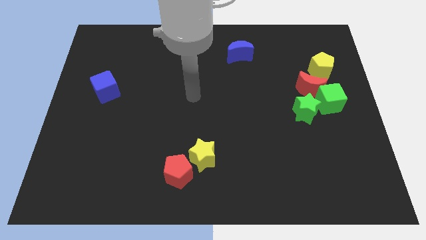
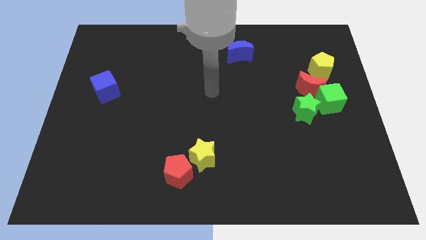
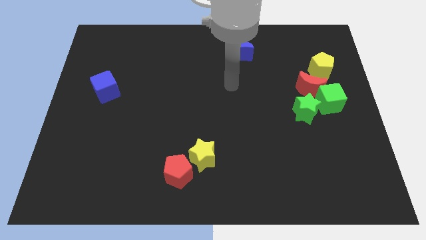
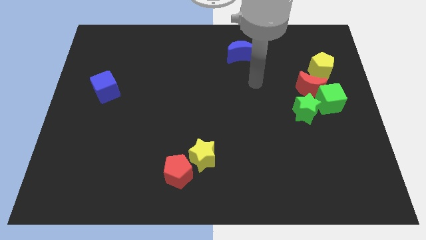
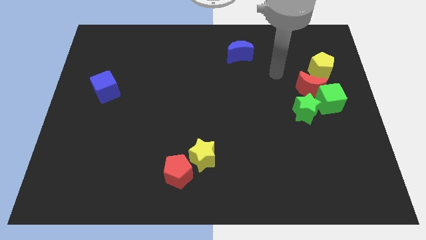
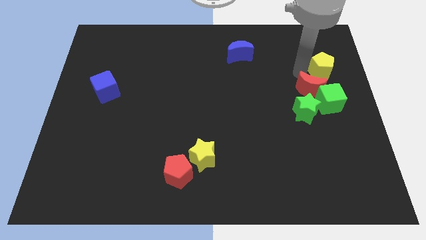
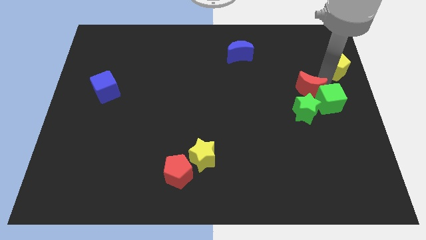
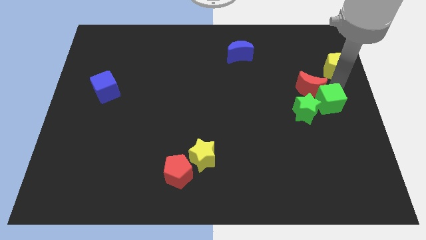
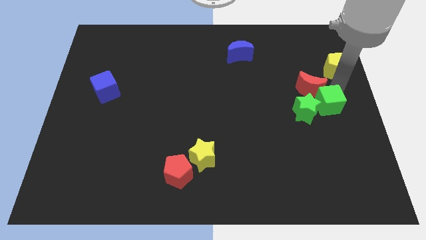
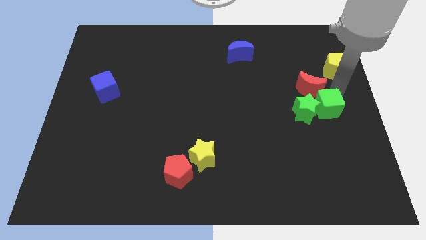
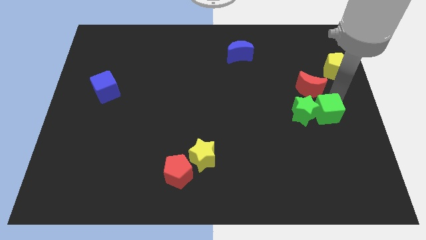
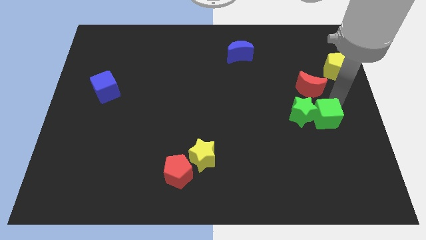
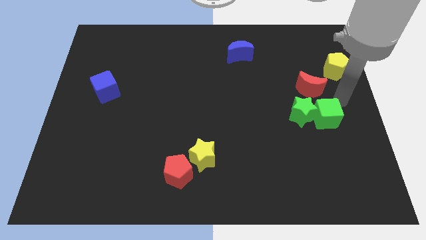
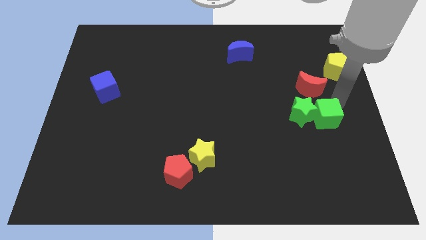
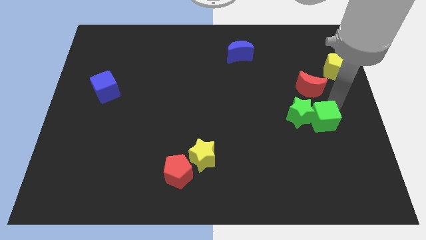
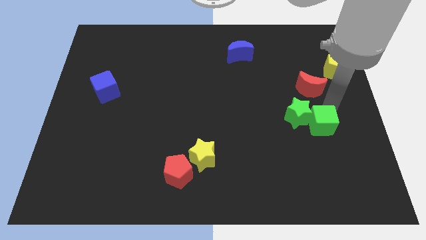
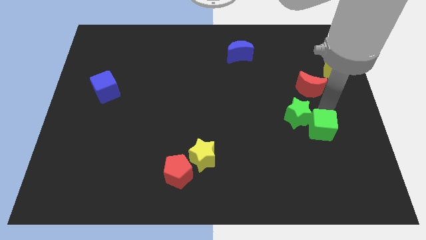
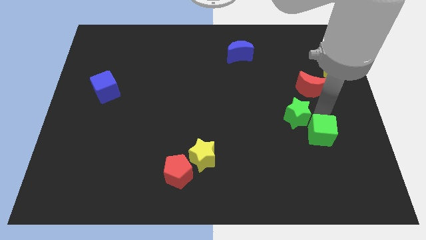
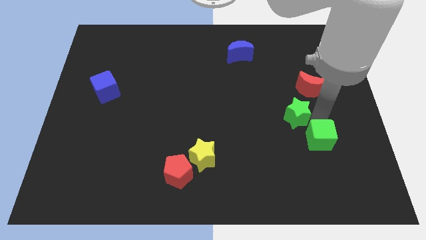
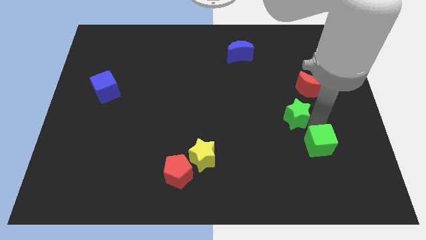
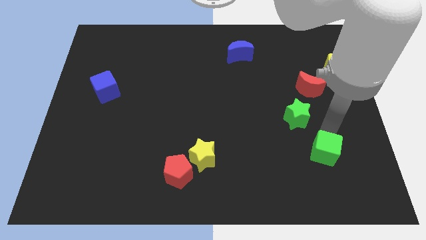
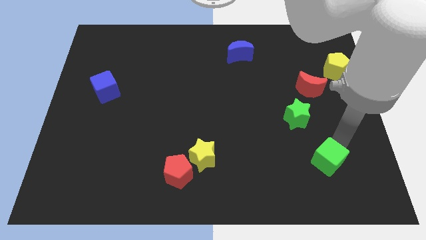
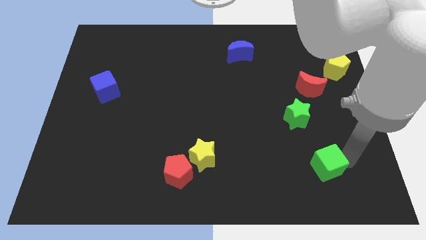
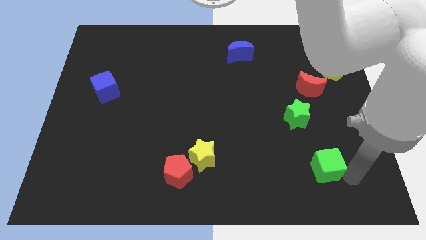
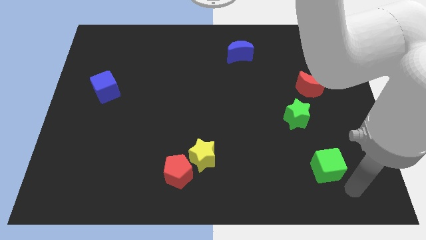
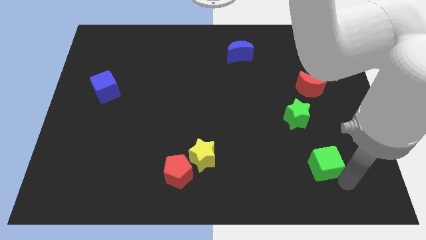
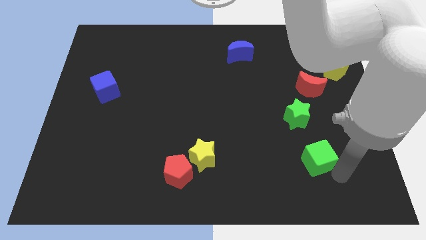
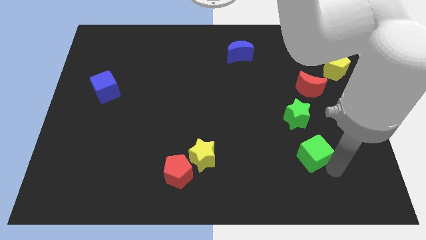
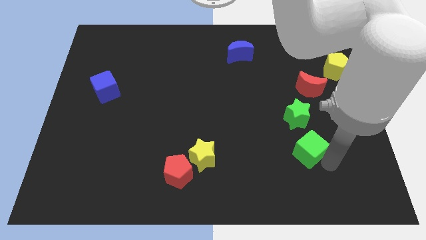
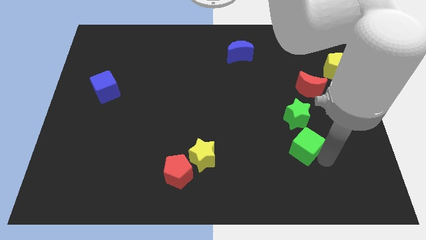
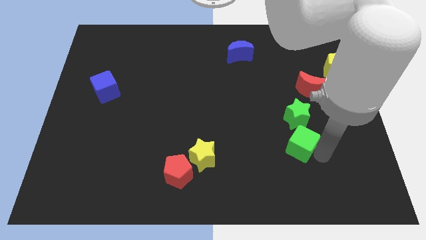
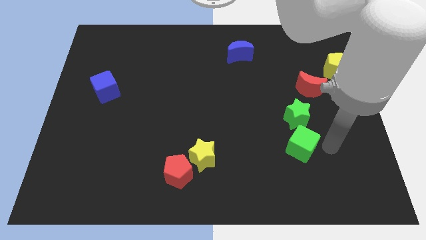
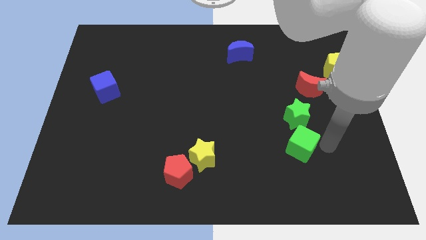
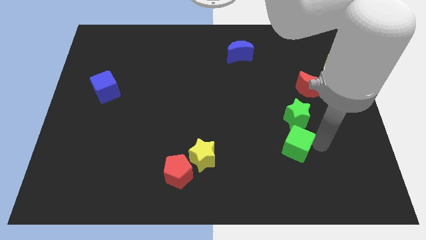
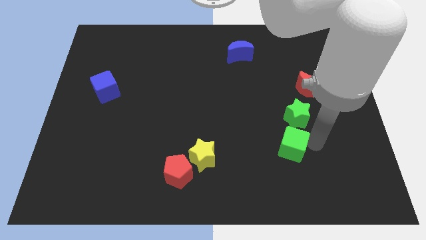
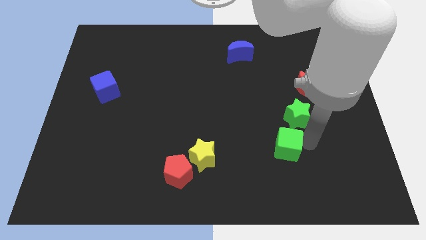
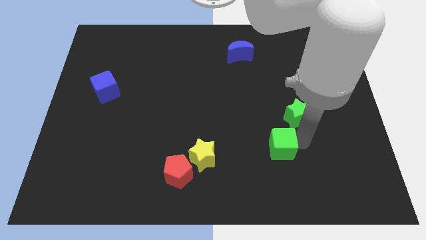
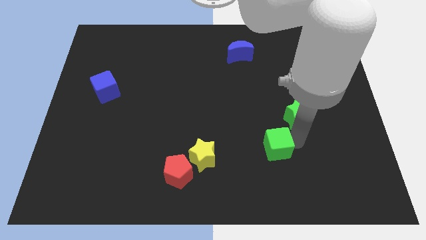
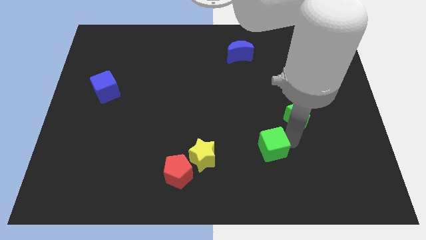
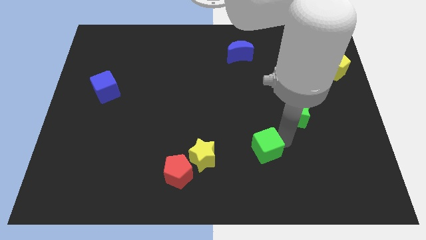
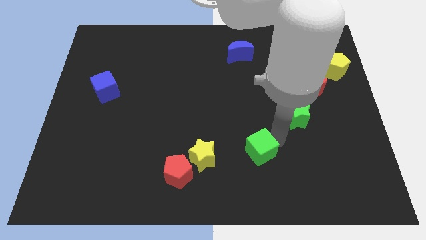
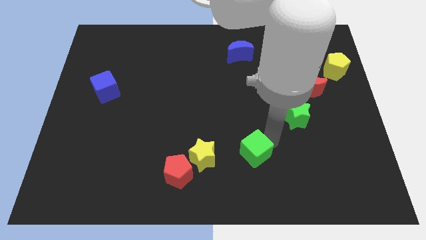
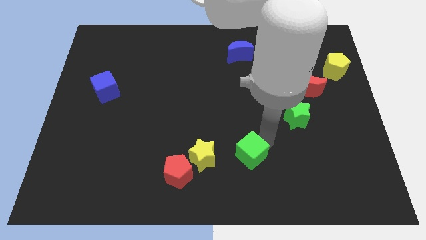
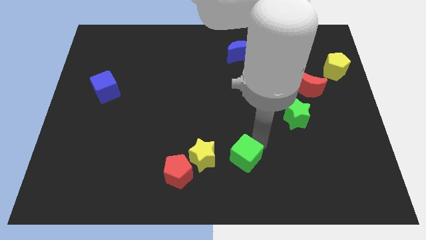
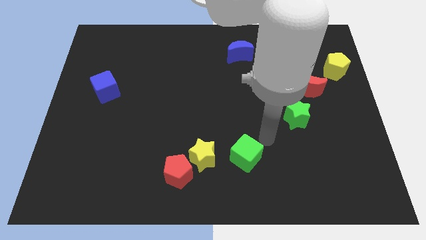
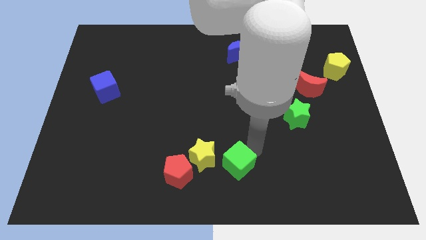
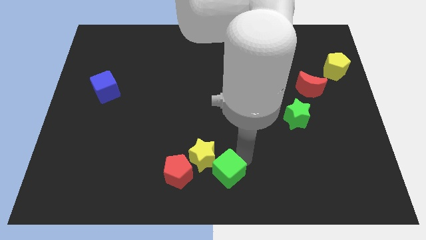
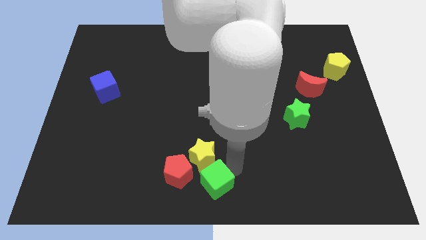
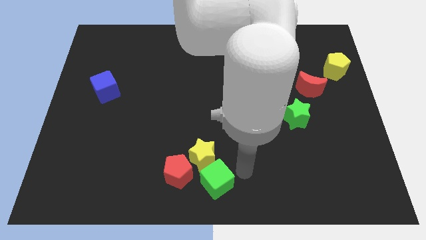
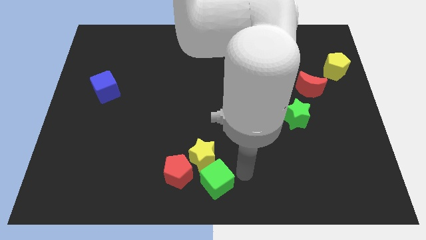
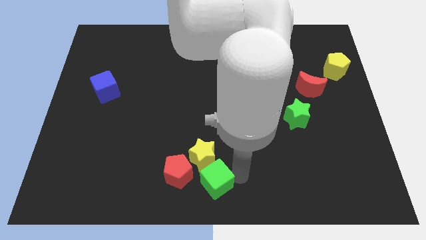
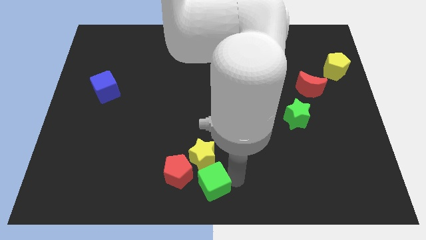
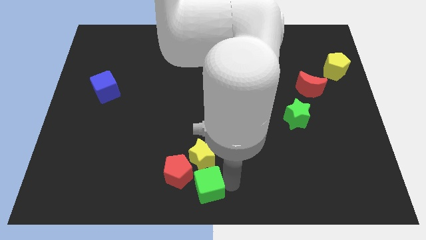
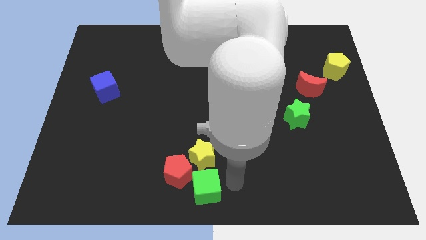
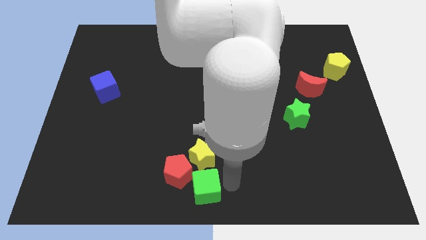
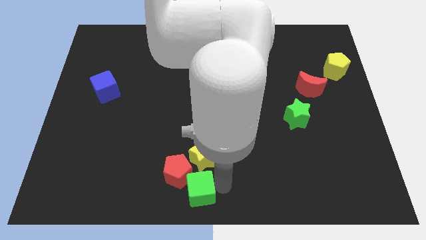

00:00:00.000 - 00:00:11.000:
slide the green cube diagonally down and to the left of the yellow star

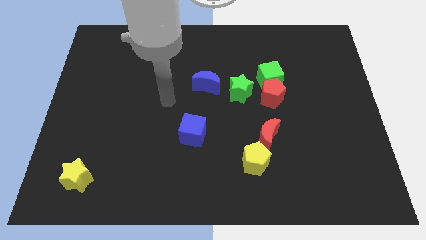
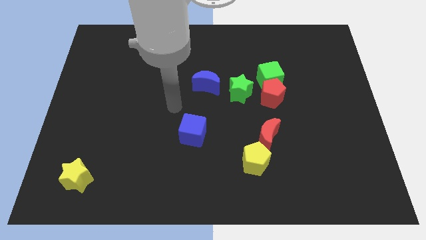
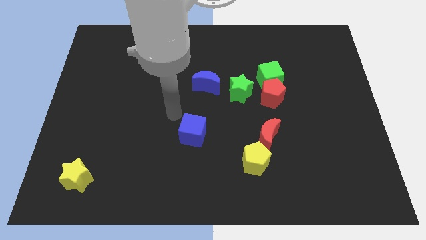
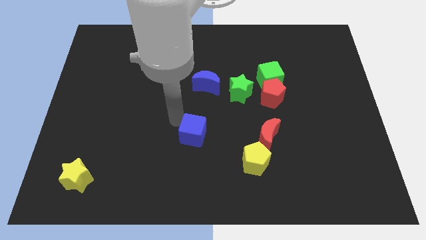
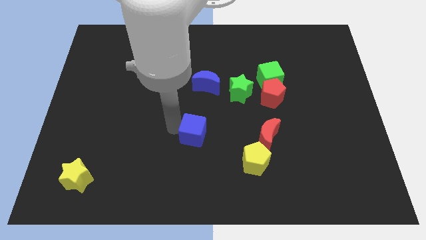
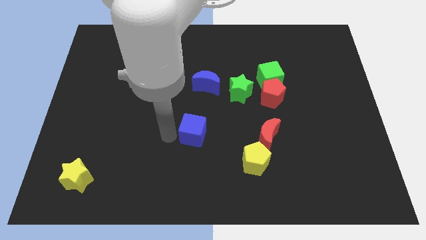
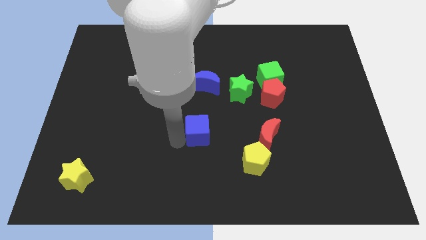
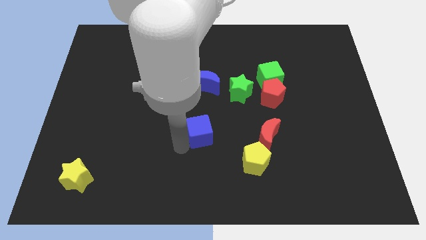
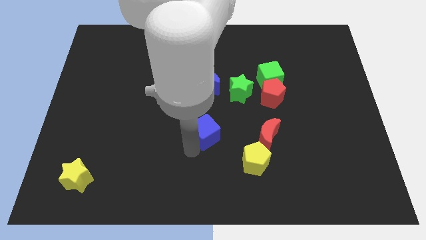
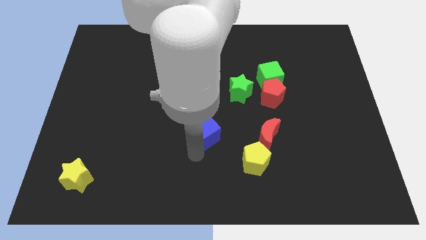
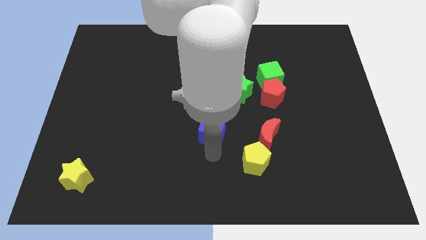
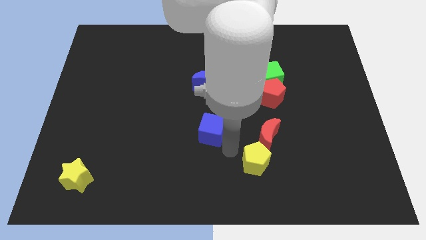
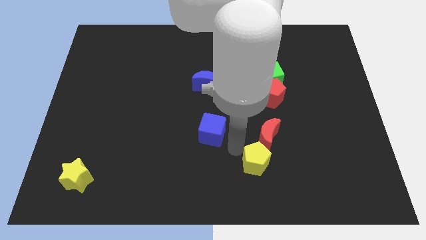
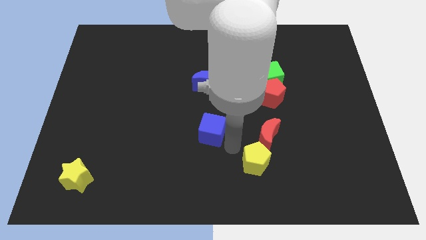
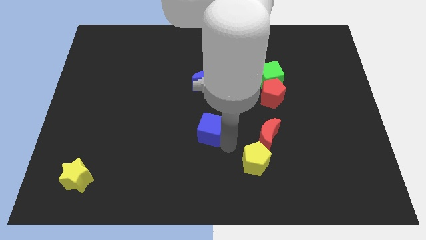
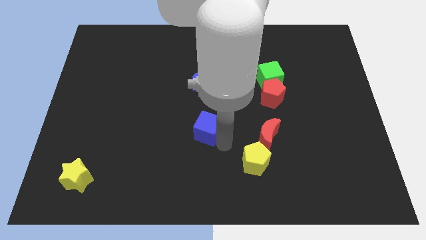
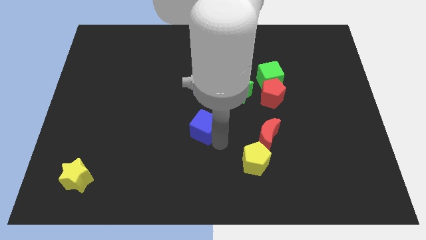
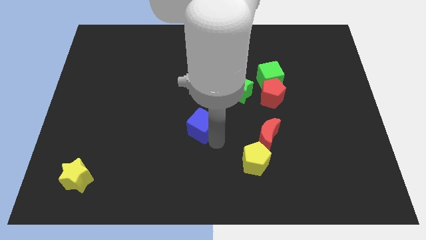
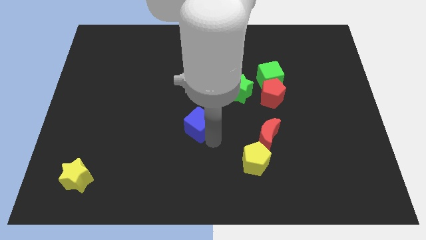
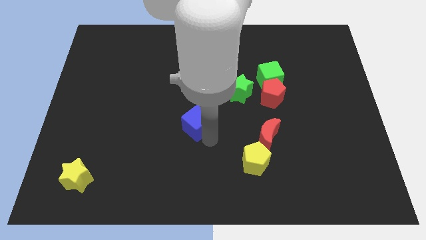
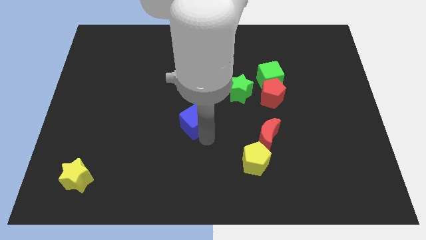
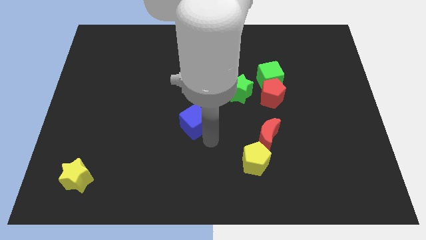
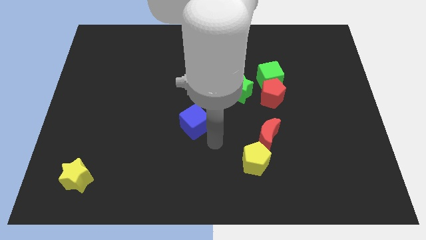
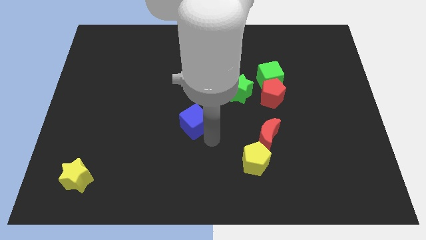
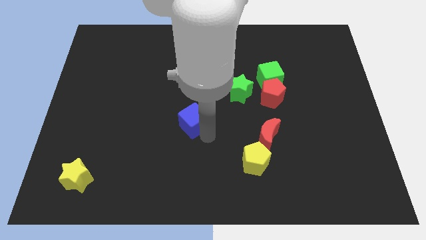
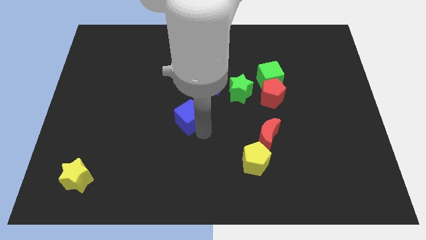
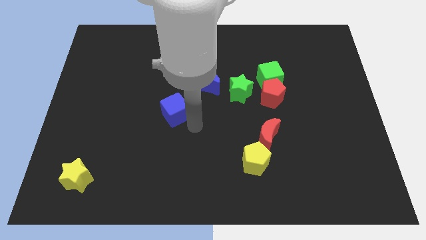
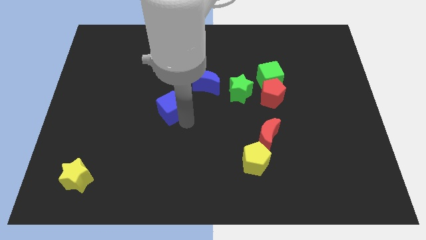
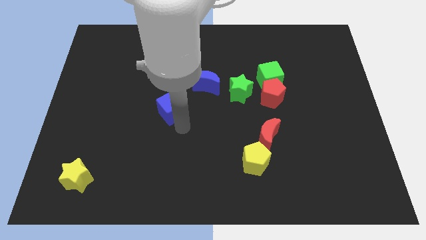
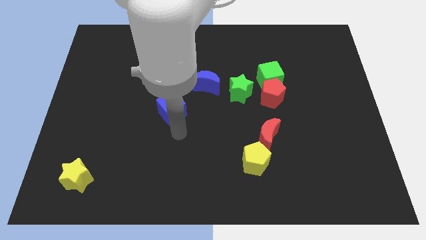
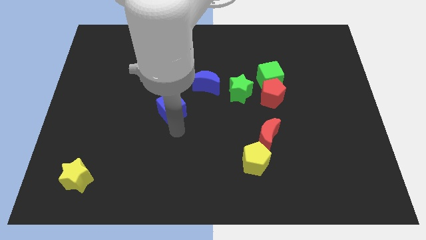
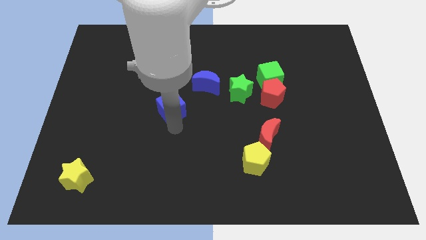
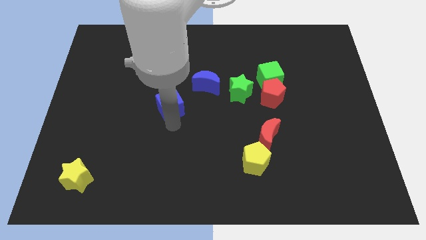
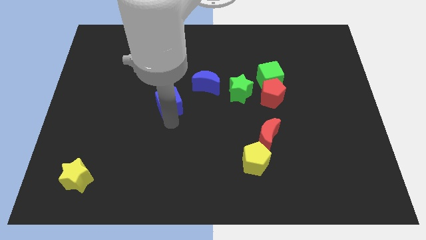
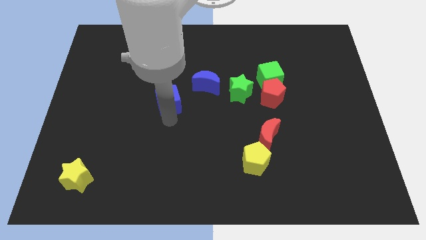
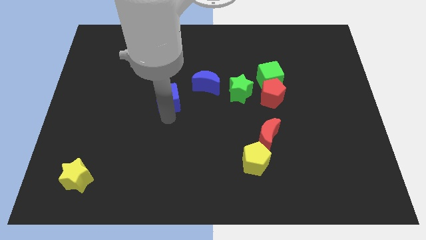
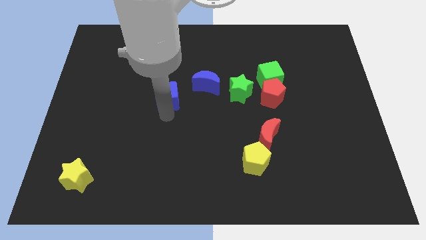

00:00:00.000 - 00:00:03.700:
move the blue cube just left of the blue moon
